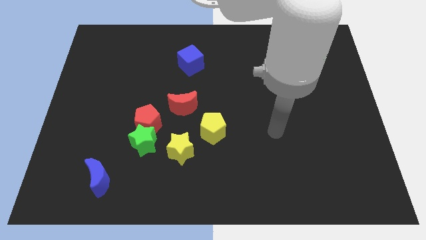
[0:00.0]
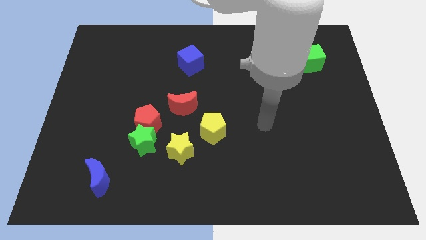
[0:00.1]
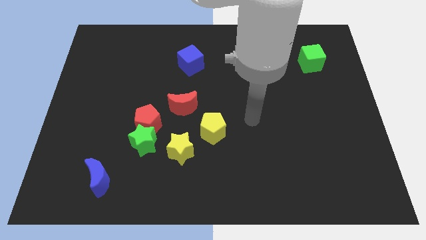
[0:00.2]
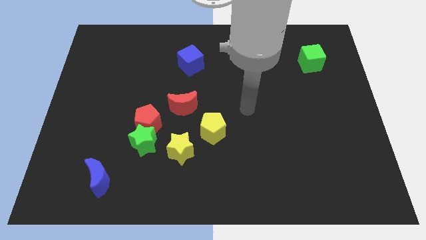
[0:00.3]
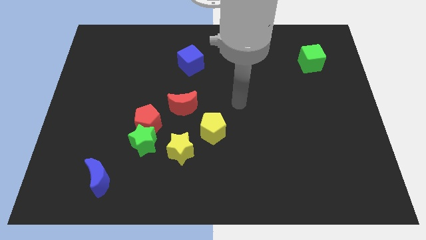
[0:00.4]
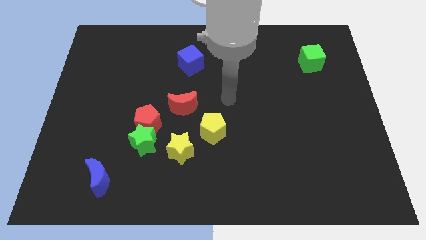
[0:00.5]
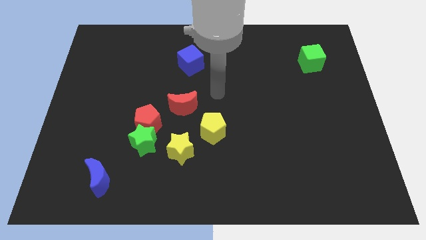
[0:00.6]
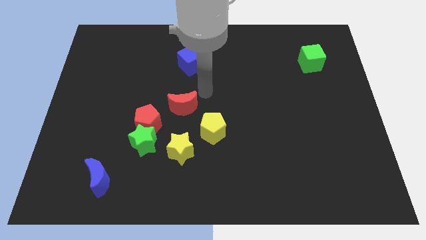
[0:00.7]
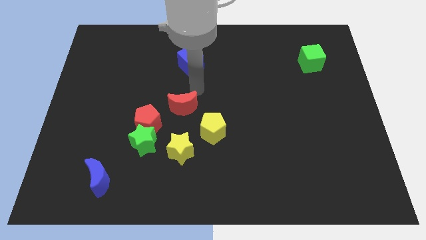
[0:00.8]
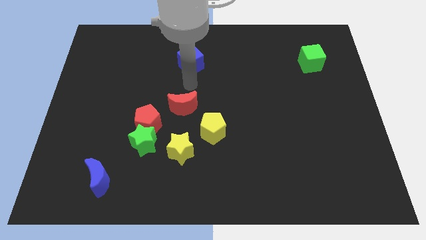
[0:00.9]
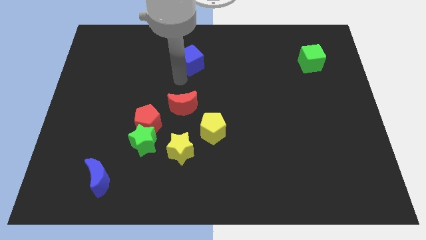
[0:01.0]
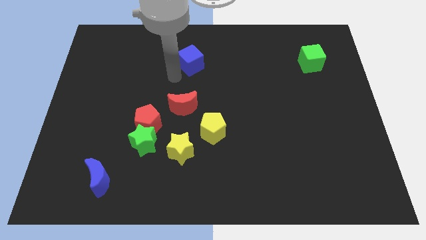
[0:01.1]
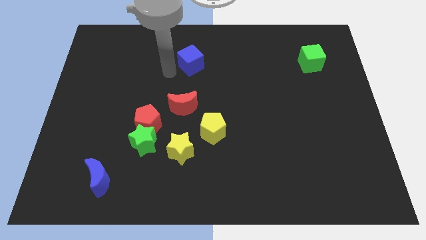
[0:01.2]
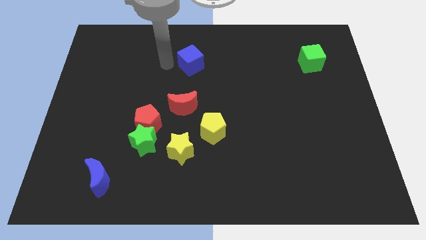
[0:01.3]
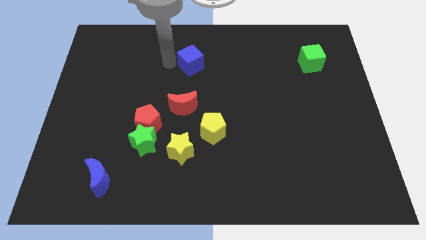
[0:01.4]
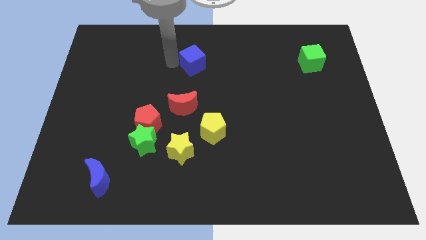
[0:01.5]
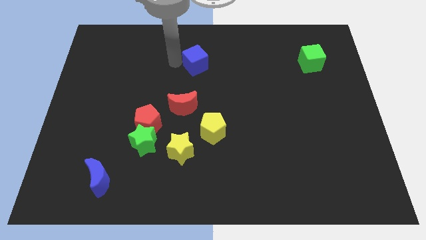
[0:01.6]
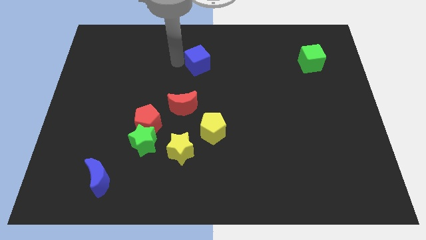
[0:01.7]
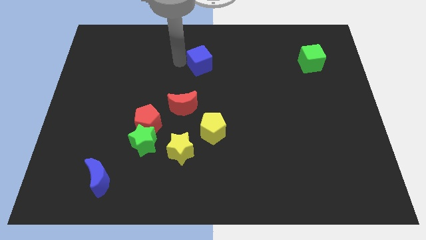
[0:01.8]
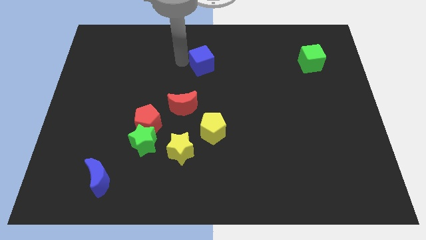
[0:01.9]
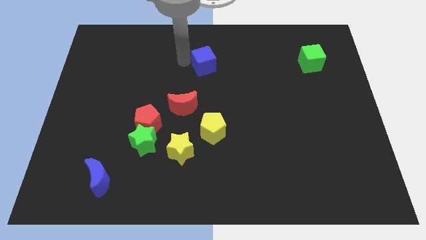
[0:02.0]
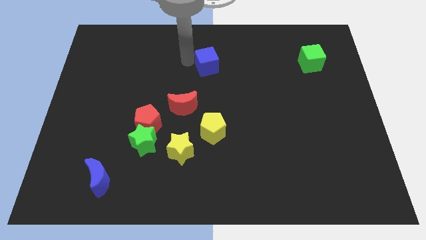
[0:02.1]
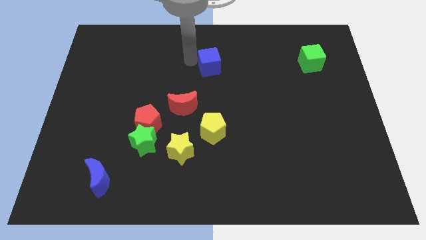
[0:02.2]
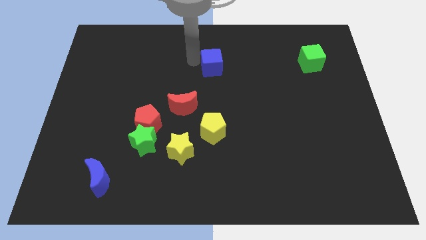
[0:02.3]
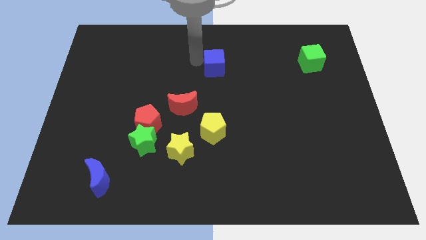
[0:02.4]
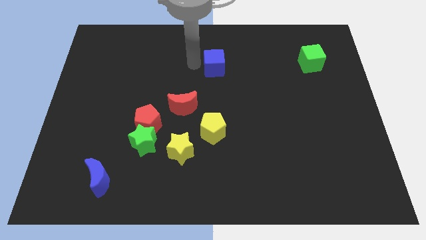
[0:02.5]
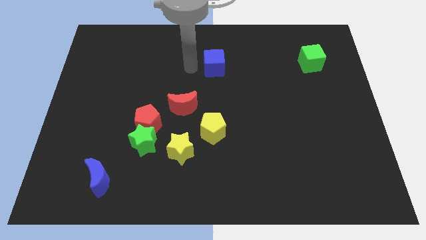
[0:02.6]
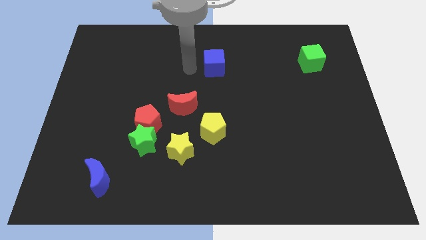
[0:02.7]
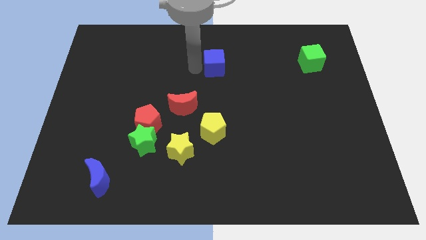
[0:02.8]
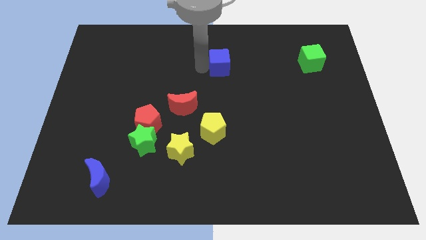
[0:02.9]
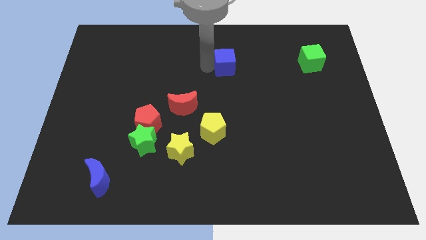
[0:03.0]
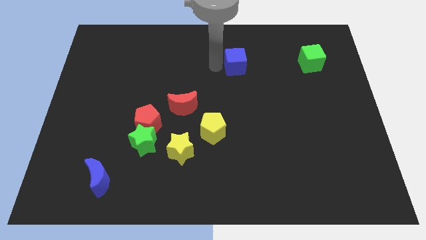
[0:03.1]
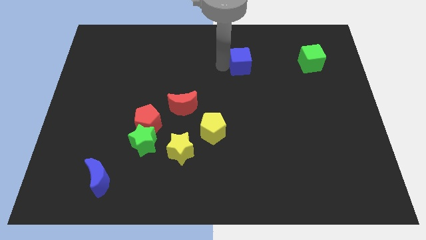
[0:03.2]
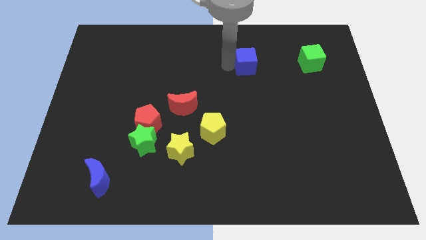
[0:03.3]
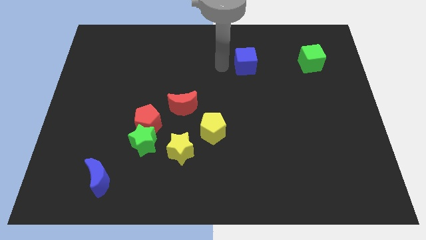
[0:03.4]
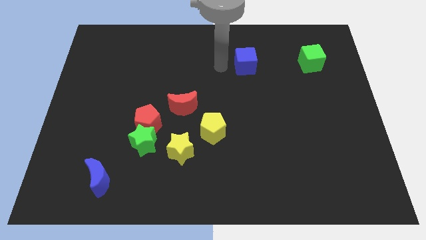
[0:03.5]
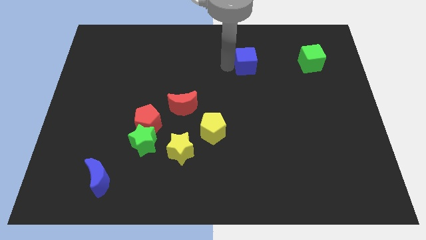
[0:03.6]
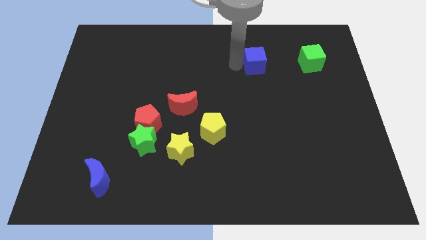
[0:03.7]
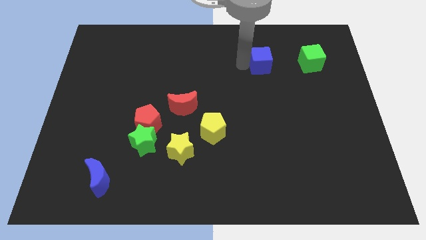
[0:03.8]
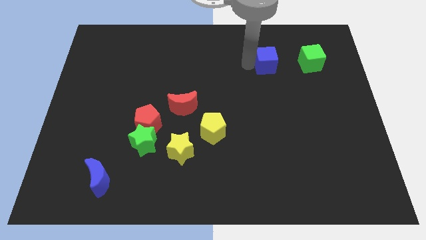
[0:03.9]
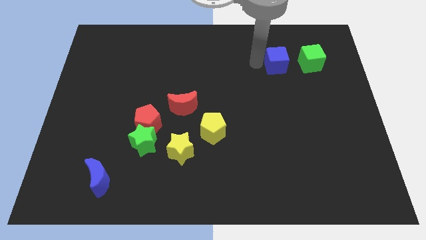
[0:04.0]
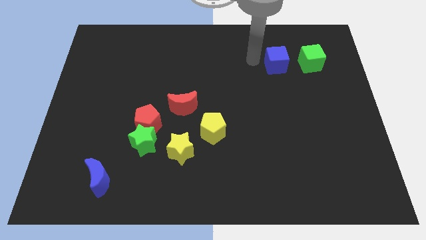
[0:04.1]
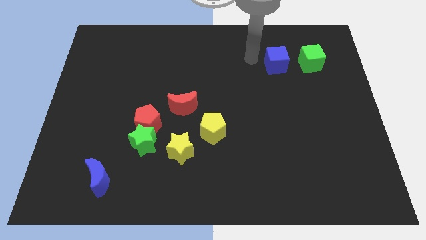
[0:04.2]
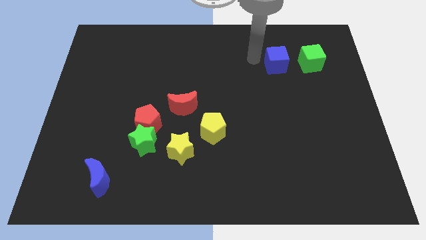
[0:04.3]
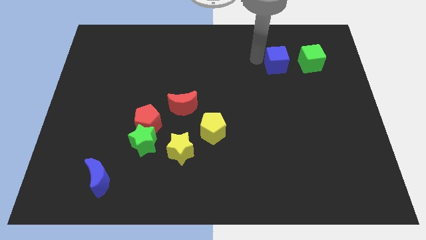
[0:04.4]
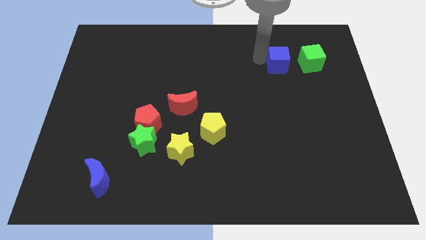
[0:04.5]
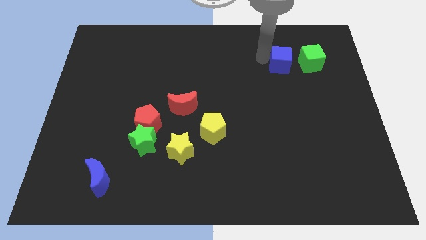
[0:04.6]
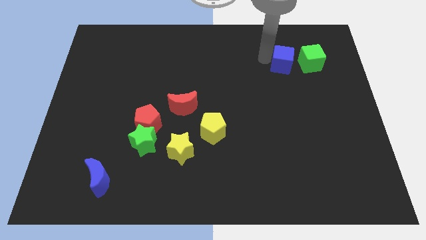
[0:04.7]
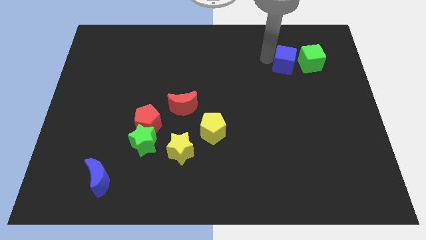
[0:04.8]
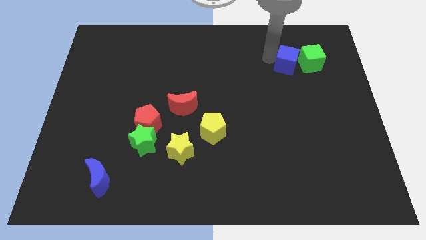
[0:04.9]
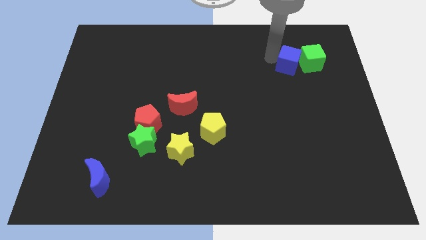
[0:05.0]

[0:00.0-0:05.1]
move the blue cube next to the green cube

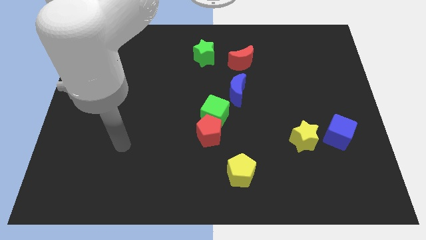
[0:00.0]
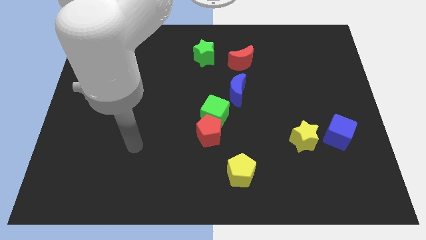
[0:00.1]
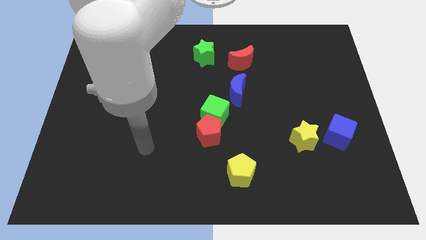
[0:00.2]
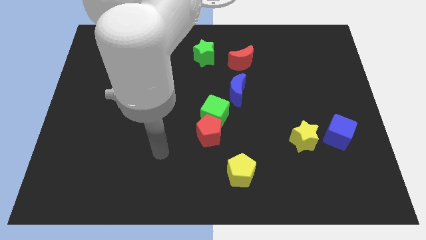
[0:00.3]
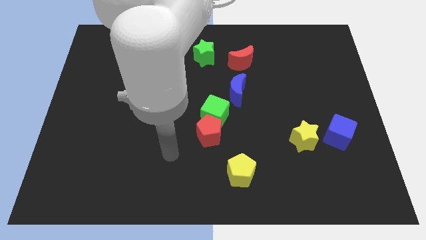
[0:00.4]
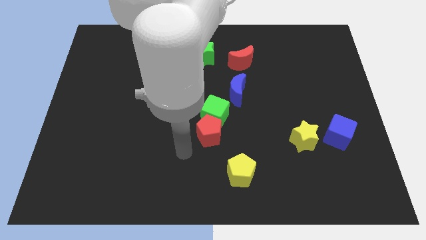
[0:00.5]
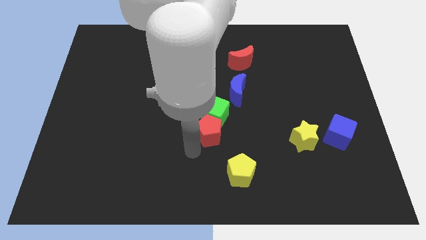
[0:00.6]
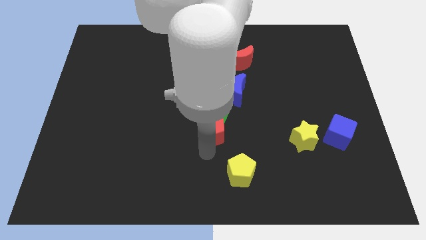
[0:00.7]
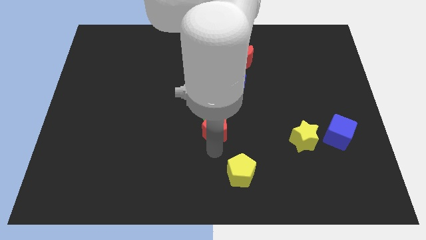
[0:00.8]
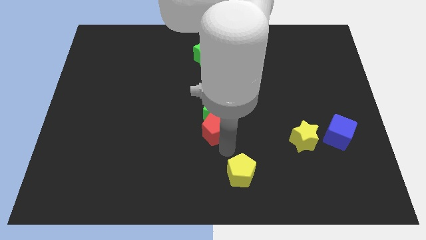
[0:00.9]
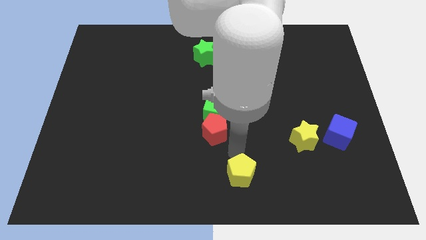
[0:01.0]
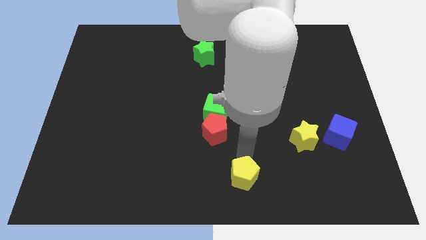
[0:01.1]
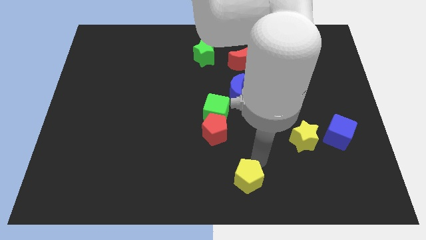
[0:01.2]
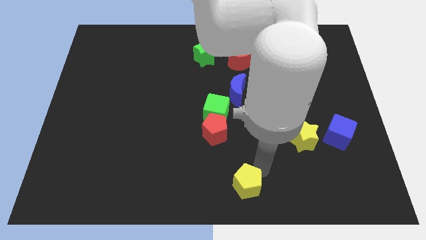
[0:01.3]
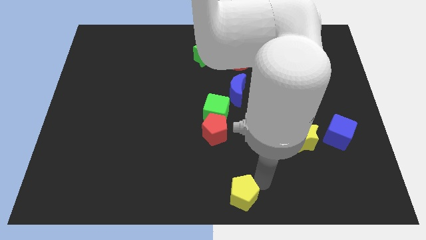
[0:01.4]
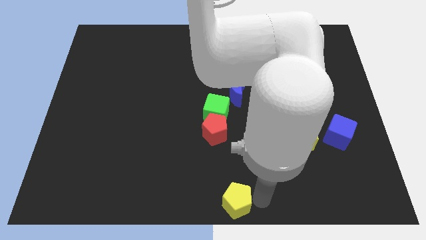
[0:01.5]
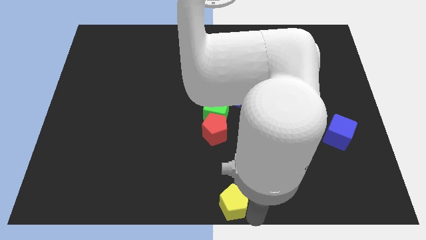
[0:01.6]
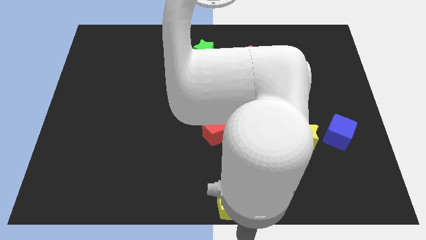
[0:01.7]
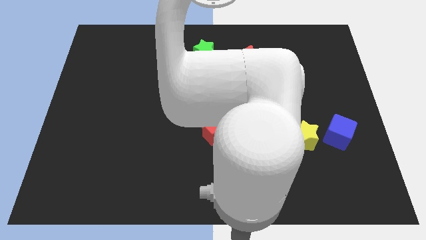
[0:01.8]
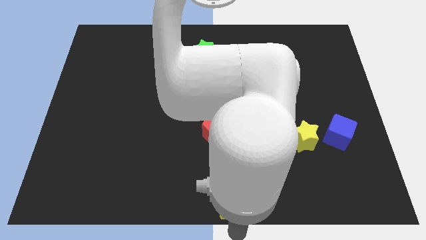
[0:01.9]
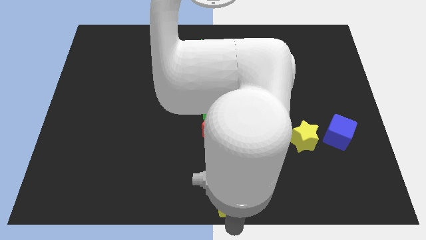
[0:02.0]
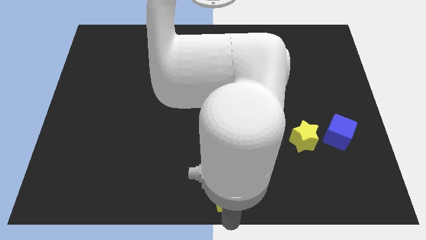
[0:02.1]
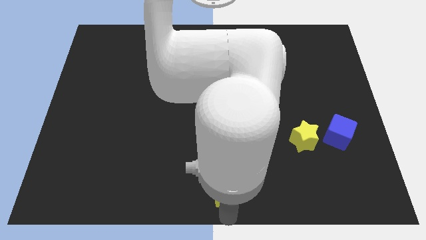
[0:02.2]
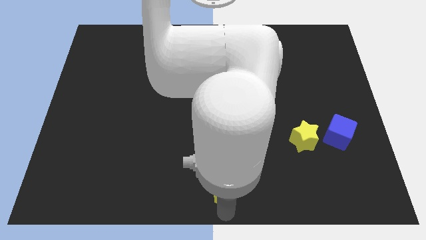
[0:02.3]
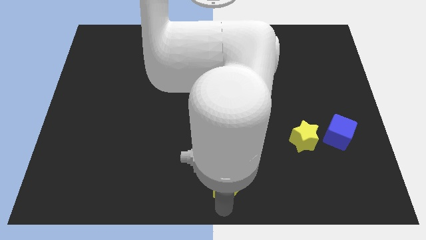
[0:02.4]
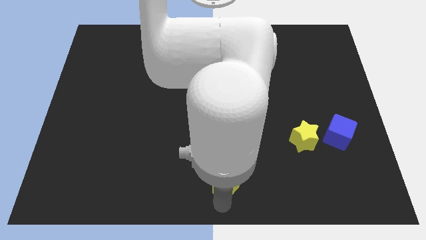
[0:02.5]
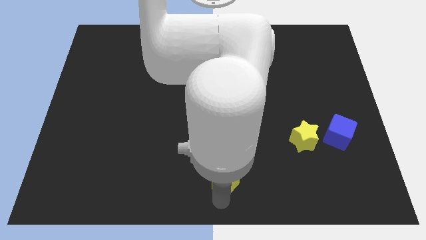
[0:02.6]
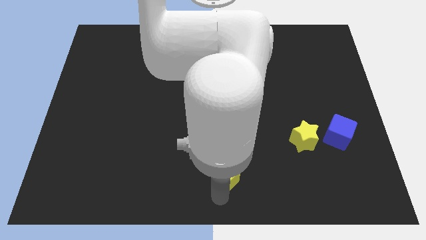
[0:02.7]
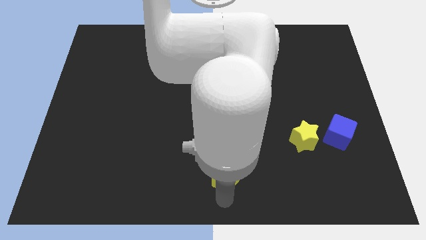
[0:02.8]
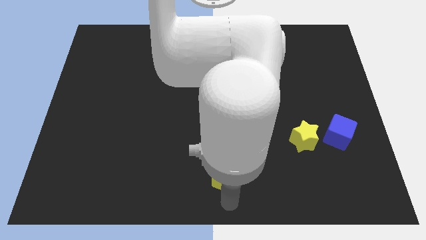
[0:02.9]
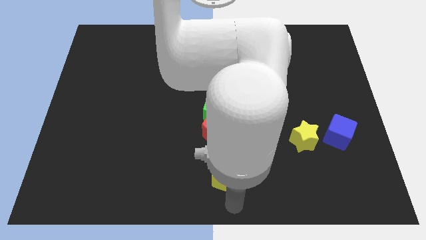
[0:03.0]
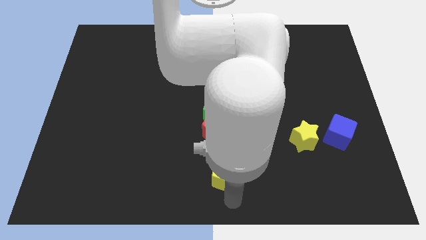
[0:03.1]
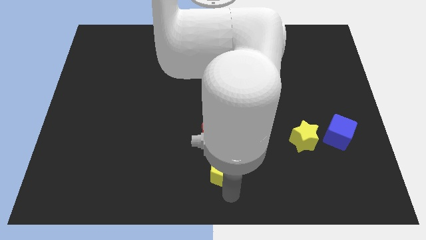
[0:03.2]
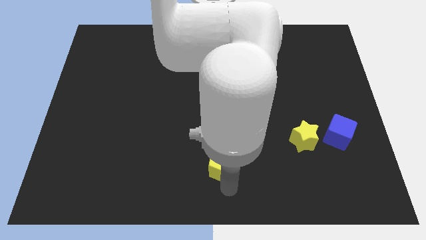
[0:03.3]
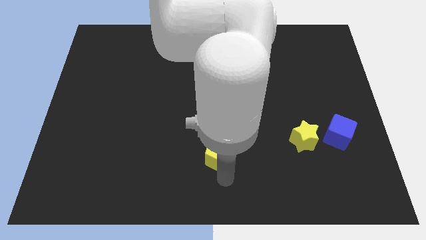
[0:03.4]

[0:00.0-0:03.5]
slide the yellow pentagon towards the red pentagon
